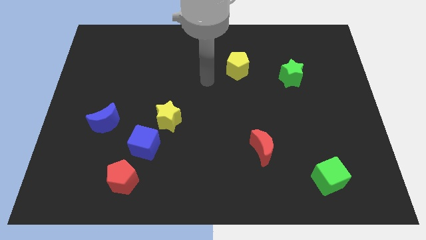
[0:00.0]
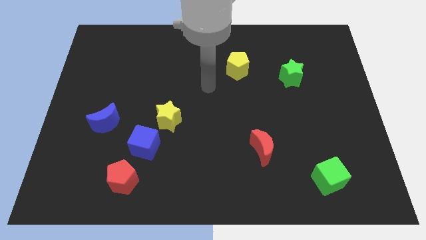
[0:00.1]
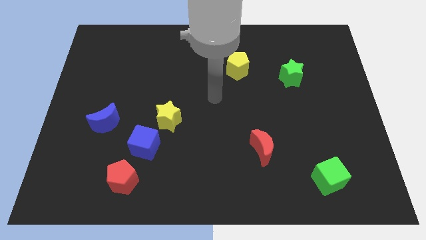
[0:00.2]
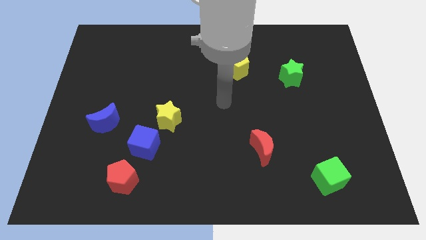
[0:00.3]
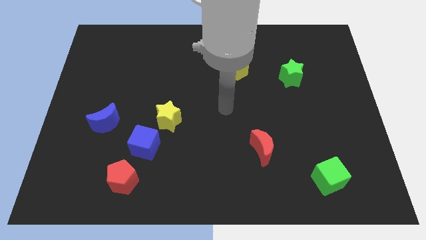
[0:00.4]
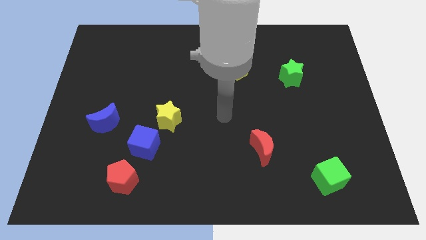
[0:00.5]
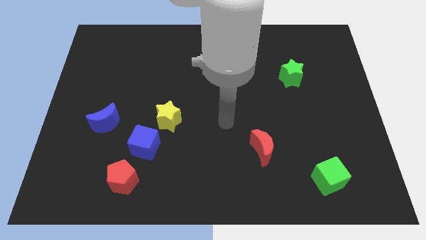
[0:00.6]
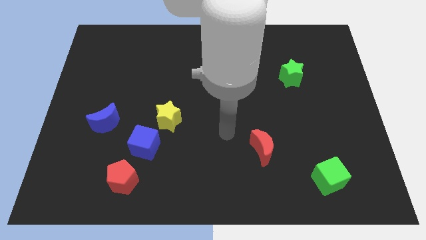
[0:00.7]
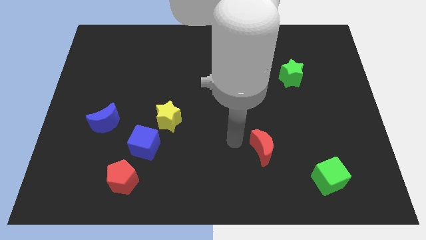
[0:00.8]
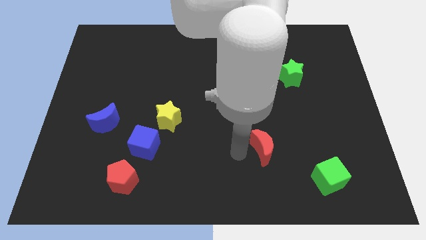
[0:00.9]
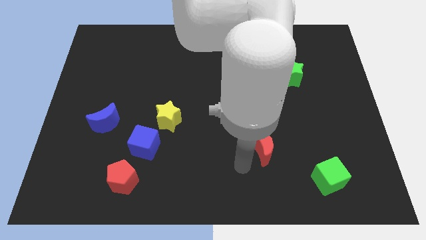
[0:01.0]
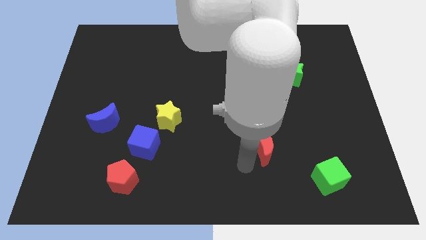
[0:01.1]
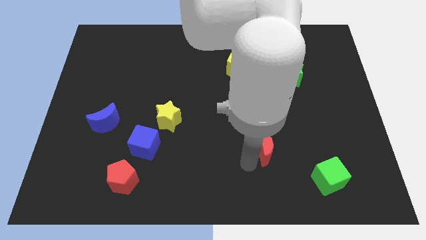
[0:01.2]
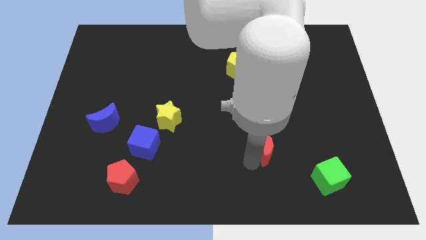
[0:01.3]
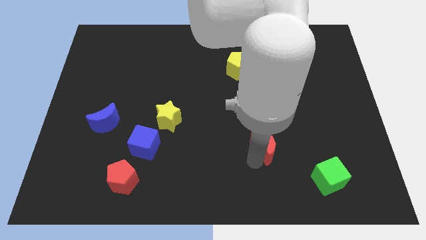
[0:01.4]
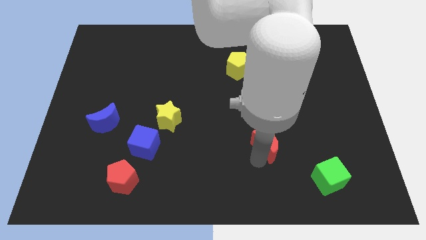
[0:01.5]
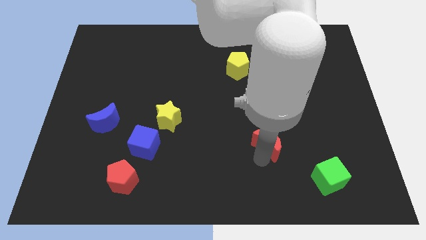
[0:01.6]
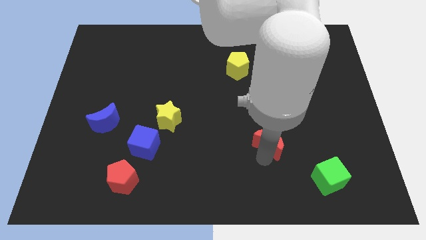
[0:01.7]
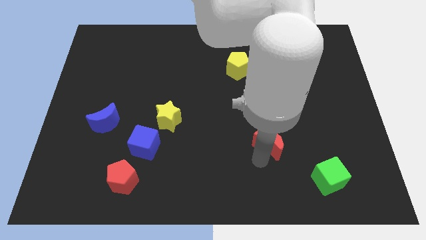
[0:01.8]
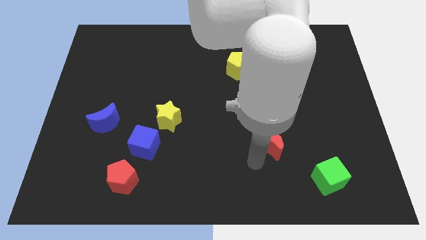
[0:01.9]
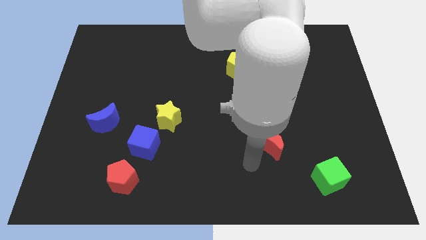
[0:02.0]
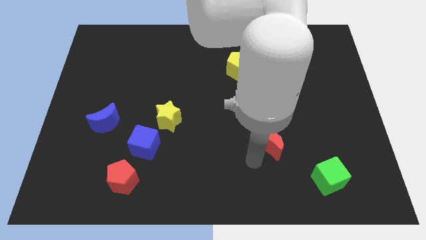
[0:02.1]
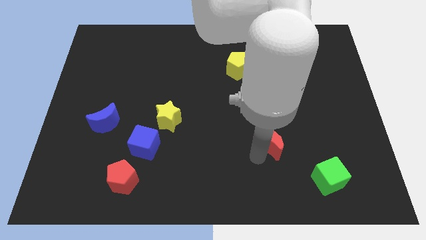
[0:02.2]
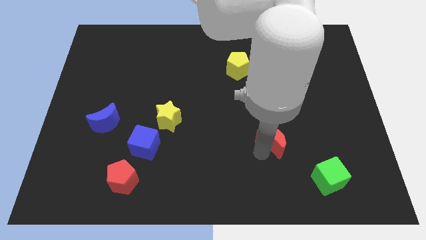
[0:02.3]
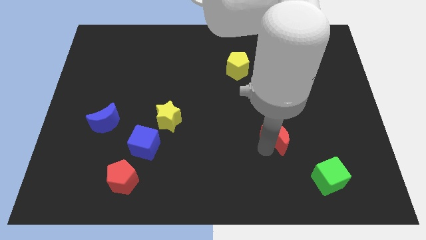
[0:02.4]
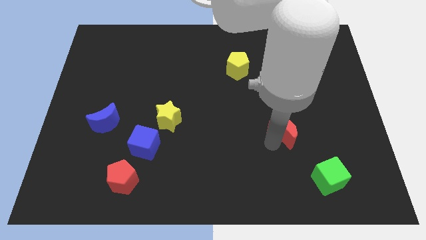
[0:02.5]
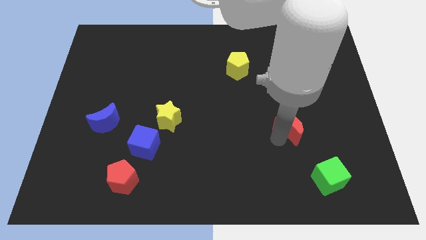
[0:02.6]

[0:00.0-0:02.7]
push the red moon up and then to the right a little bit

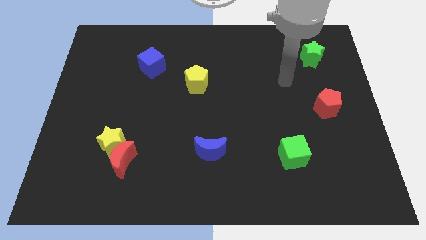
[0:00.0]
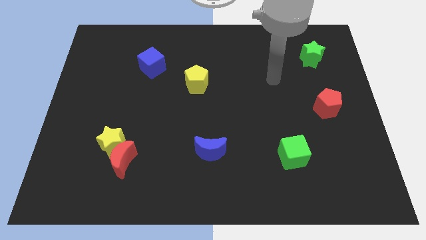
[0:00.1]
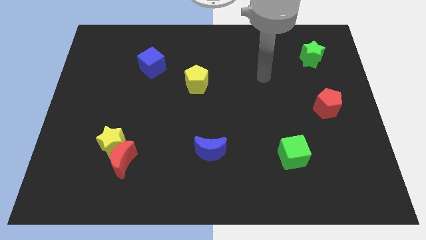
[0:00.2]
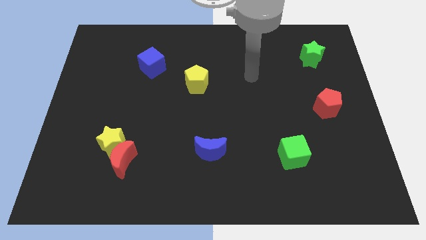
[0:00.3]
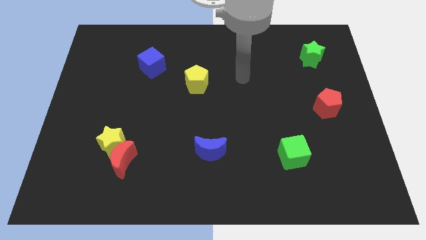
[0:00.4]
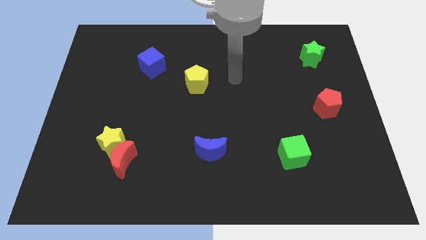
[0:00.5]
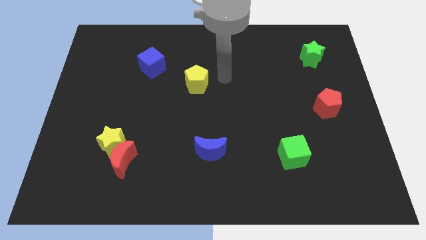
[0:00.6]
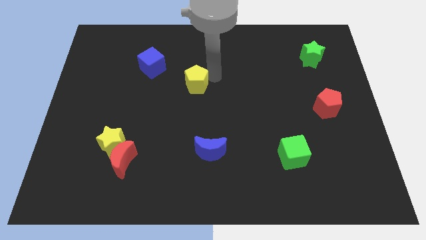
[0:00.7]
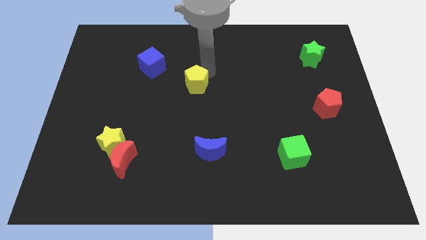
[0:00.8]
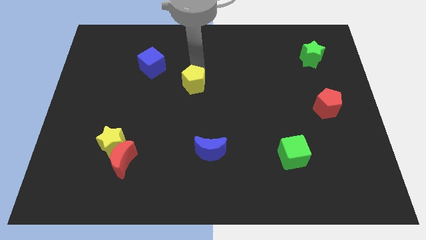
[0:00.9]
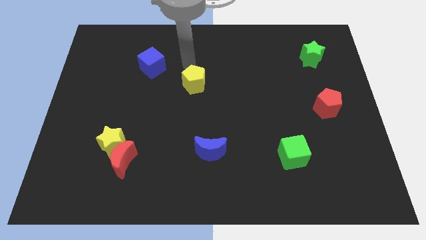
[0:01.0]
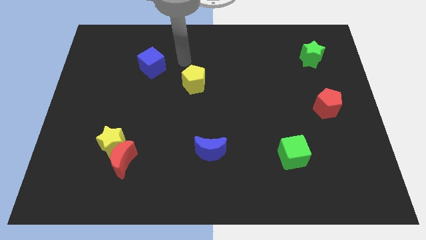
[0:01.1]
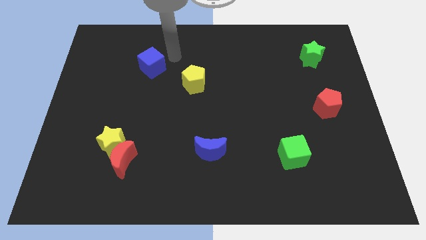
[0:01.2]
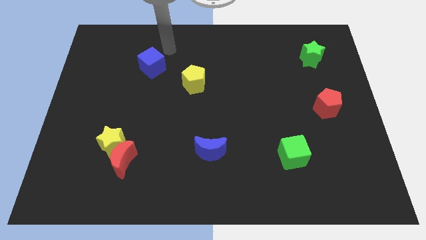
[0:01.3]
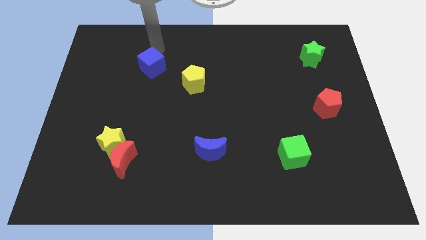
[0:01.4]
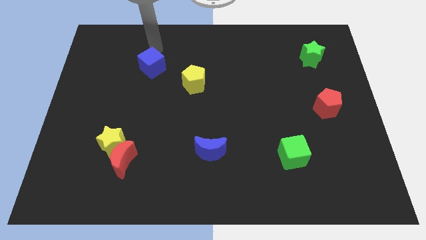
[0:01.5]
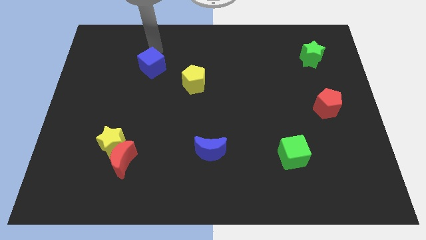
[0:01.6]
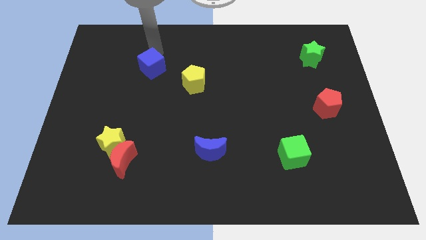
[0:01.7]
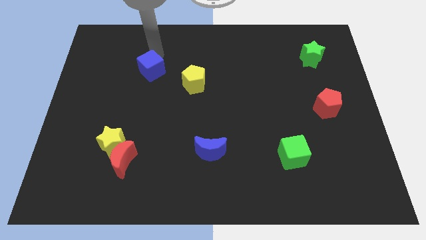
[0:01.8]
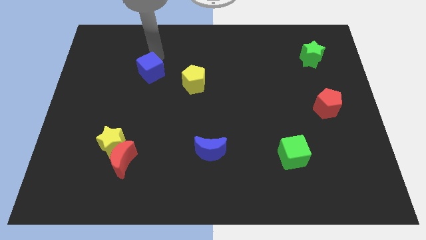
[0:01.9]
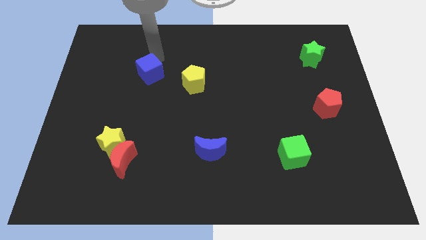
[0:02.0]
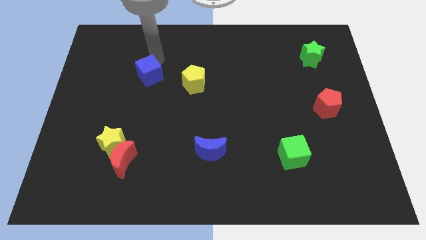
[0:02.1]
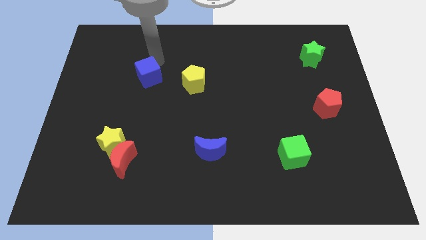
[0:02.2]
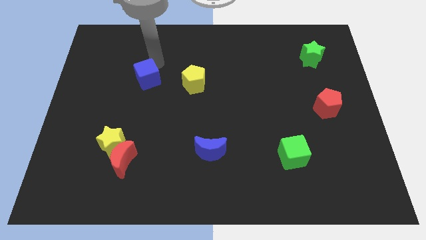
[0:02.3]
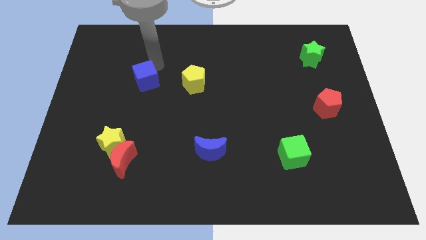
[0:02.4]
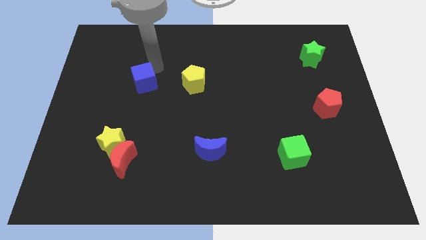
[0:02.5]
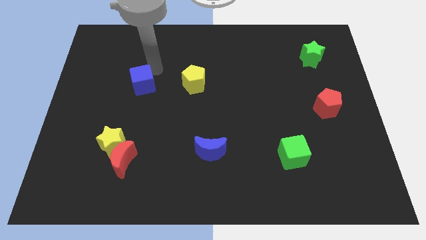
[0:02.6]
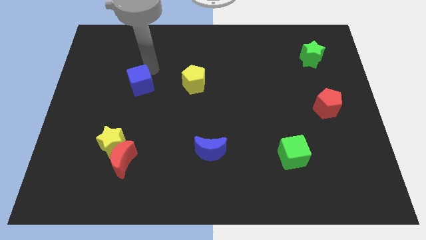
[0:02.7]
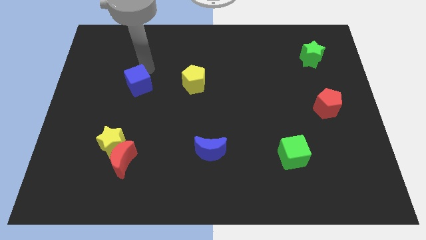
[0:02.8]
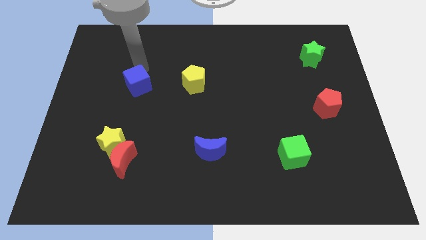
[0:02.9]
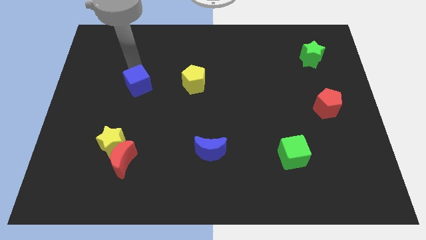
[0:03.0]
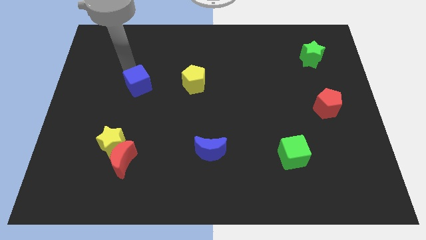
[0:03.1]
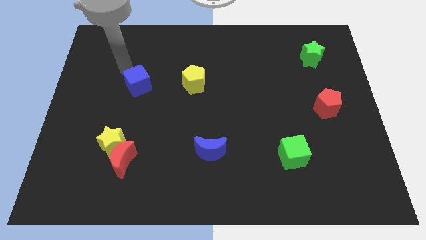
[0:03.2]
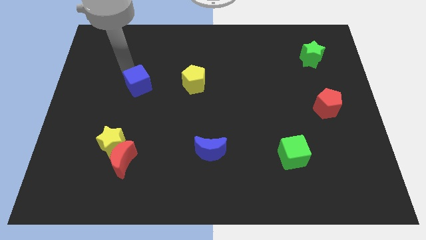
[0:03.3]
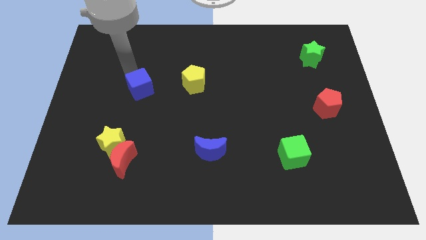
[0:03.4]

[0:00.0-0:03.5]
move the blue cube somewhat down

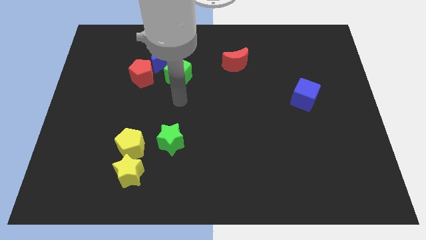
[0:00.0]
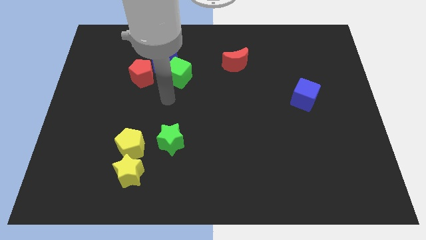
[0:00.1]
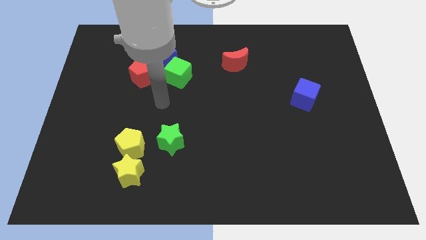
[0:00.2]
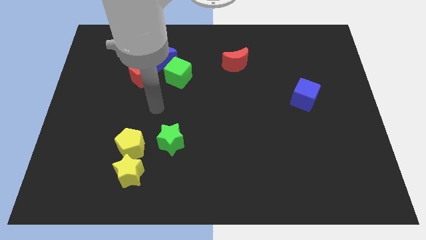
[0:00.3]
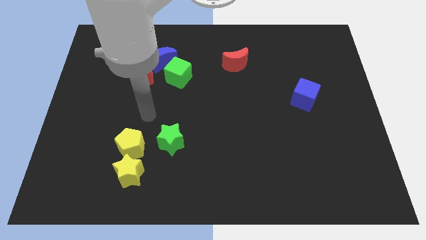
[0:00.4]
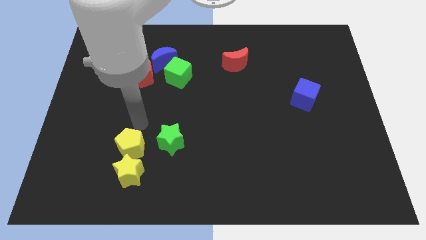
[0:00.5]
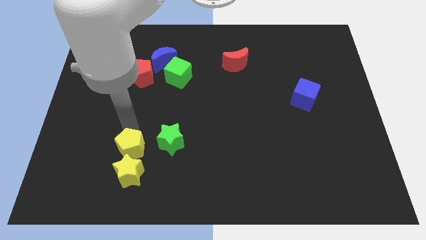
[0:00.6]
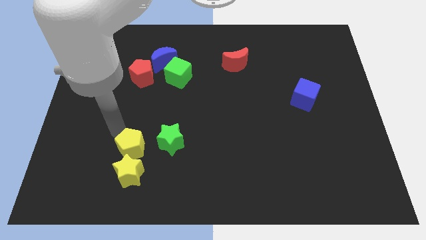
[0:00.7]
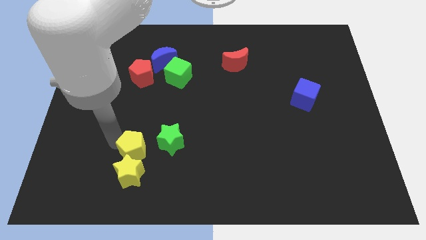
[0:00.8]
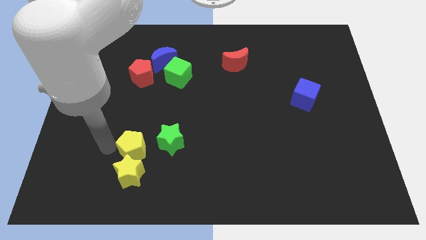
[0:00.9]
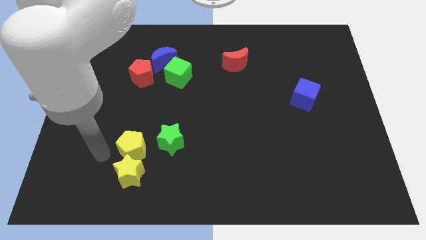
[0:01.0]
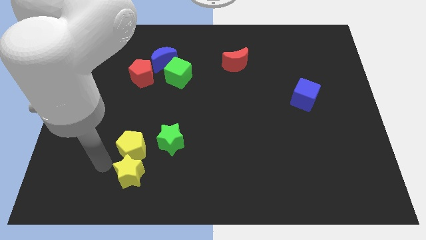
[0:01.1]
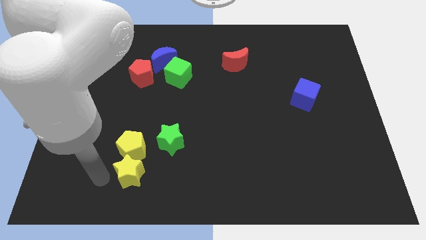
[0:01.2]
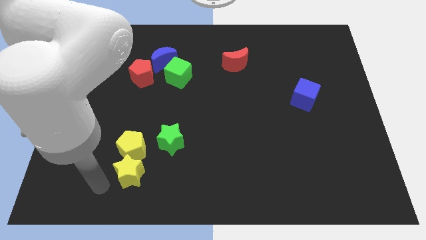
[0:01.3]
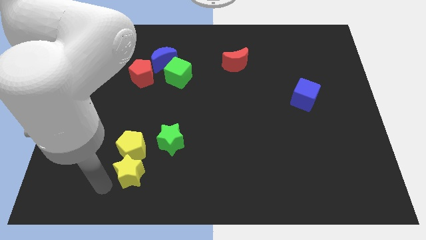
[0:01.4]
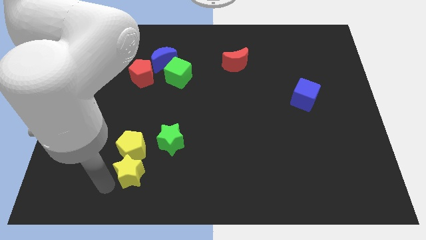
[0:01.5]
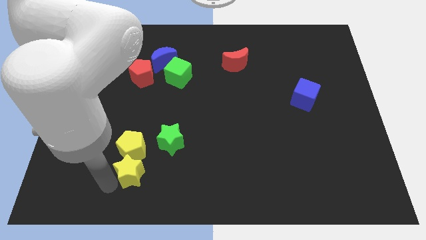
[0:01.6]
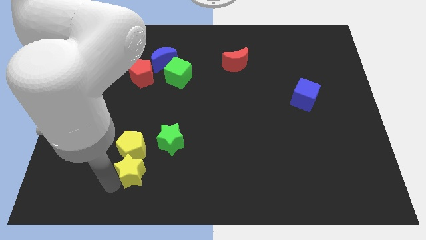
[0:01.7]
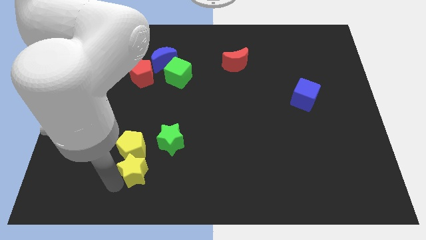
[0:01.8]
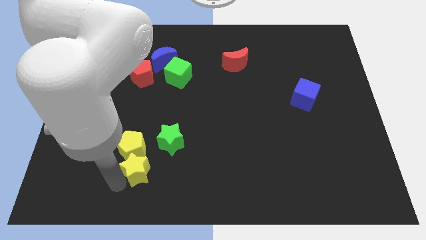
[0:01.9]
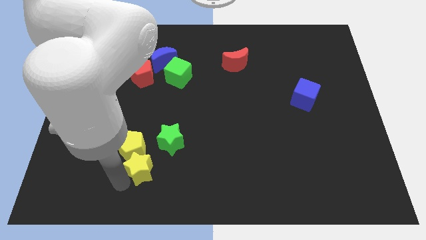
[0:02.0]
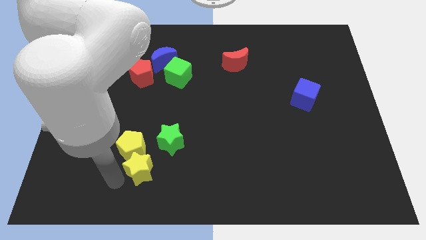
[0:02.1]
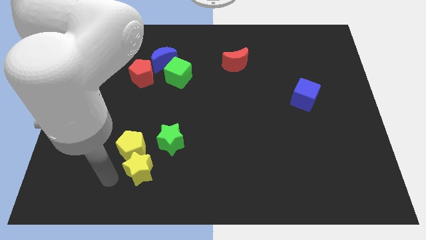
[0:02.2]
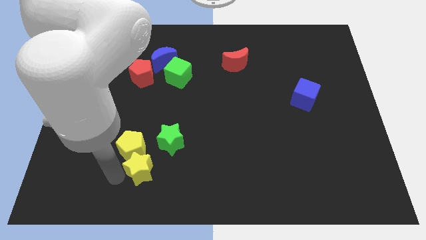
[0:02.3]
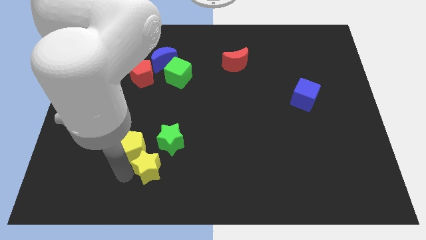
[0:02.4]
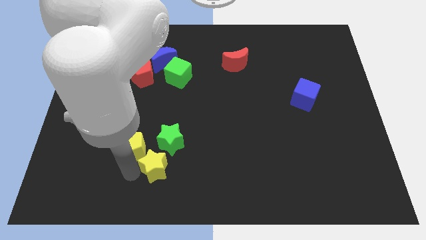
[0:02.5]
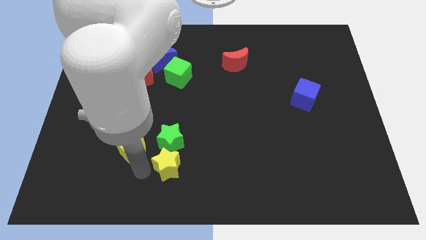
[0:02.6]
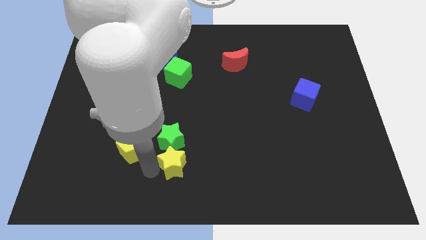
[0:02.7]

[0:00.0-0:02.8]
push the yellow star up and then to the right somewhat
